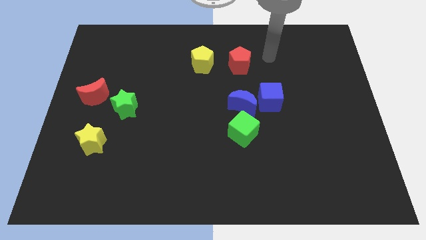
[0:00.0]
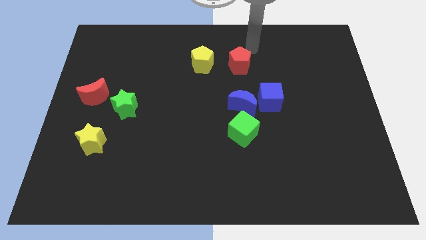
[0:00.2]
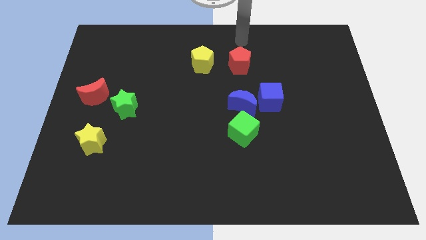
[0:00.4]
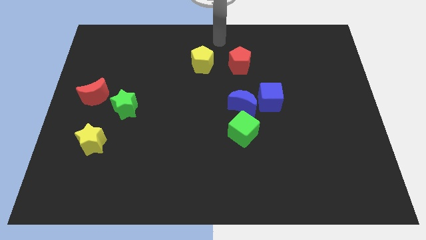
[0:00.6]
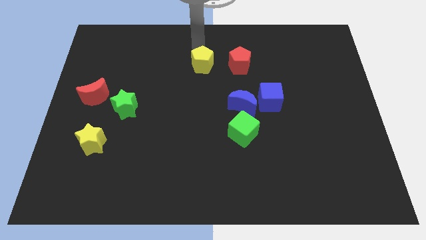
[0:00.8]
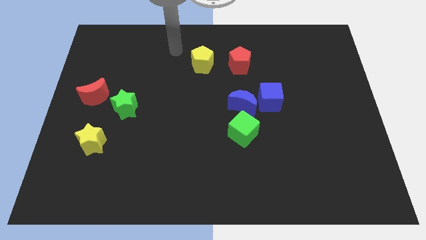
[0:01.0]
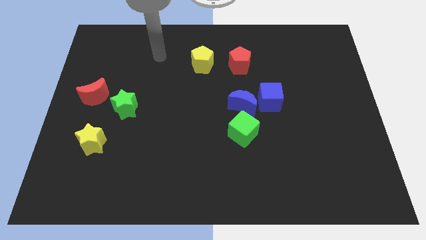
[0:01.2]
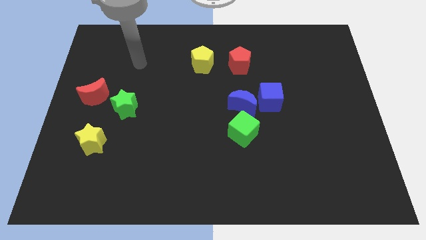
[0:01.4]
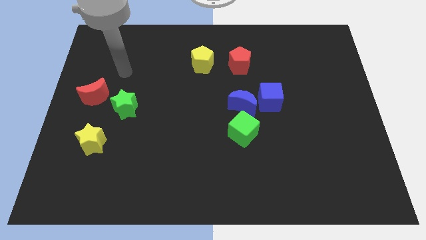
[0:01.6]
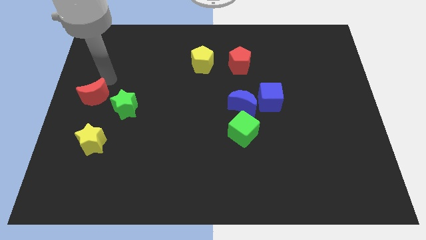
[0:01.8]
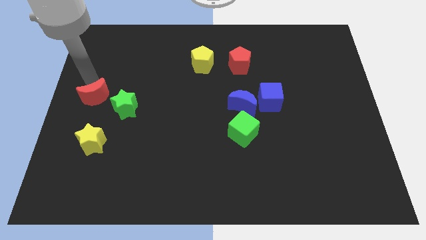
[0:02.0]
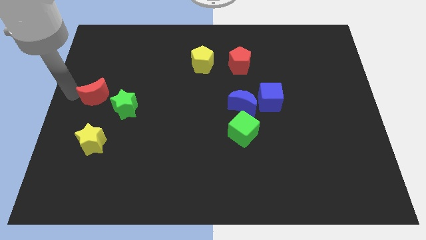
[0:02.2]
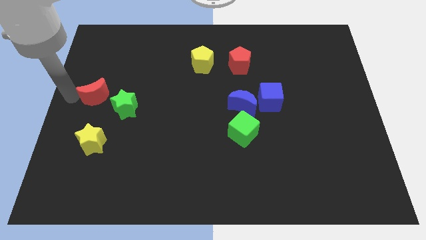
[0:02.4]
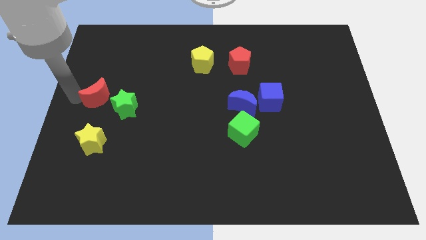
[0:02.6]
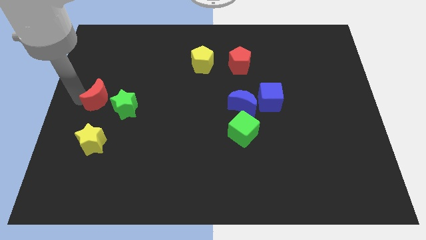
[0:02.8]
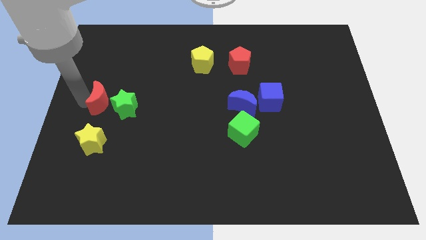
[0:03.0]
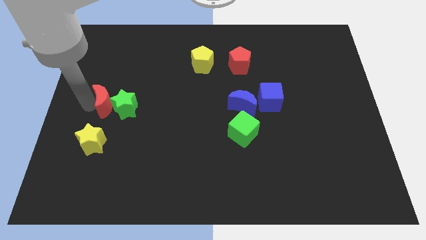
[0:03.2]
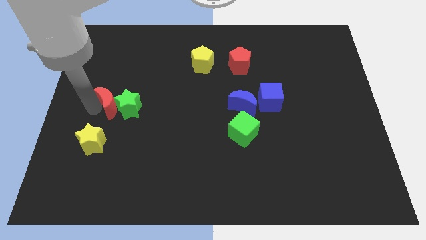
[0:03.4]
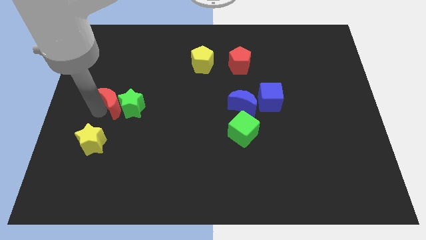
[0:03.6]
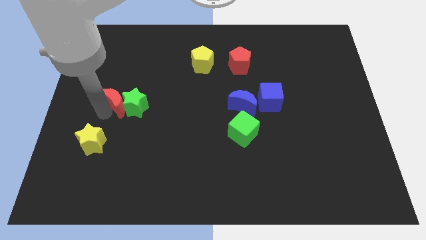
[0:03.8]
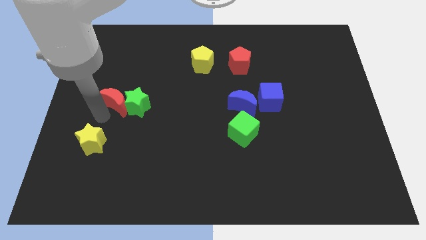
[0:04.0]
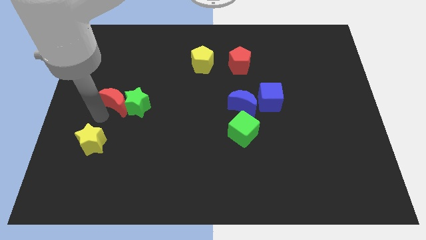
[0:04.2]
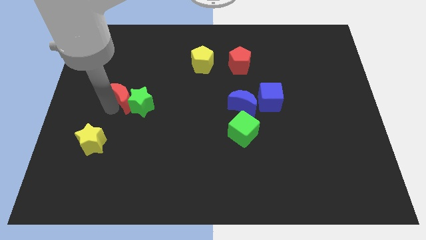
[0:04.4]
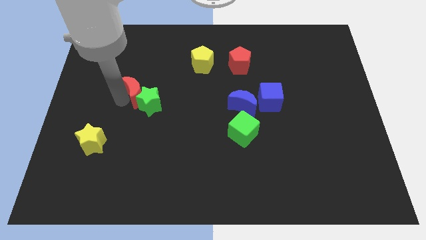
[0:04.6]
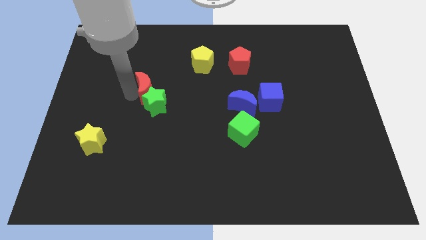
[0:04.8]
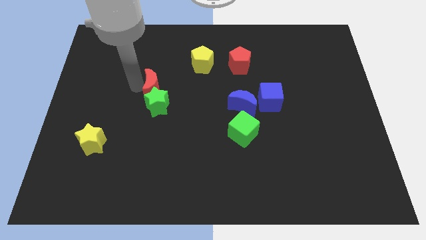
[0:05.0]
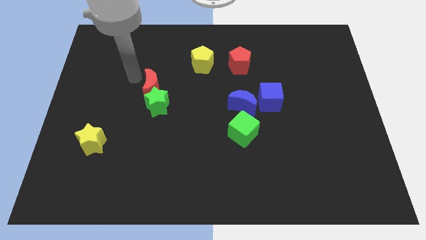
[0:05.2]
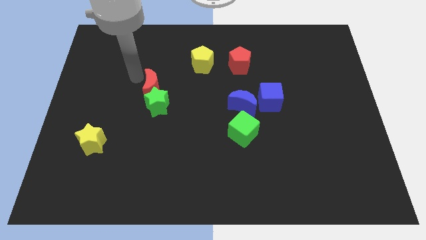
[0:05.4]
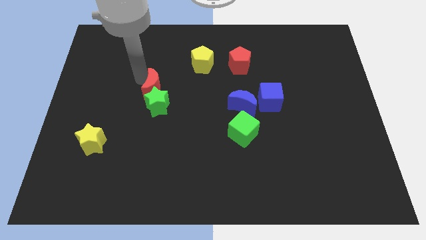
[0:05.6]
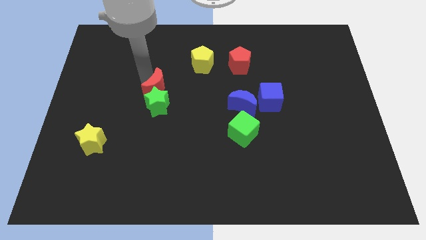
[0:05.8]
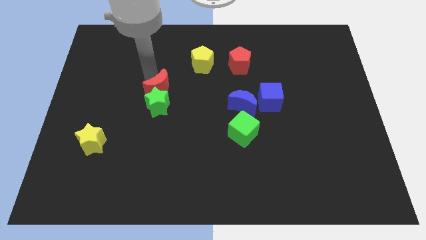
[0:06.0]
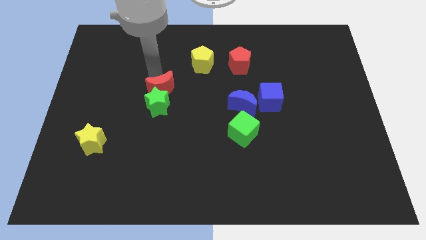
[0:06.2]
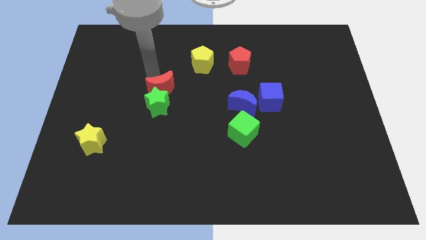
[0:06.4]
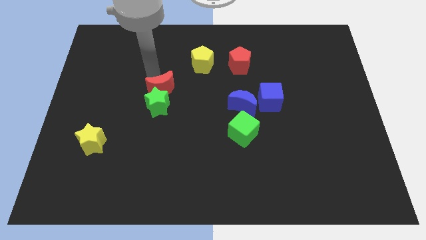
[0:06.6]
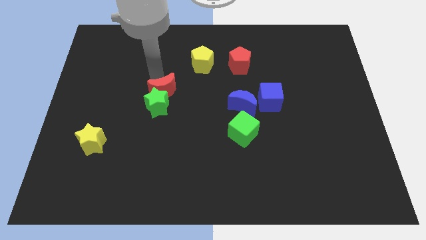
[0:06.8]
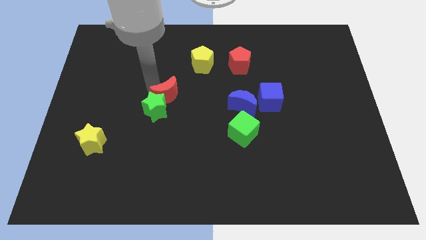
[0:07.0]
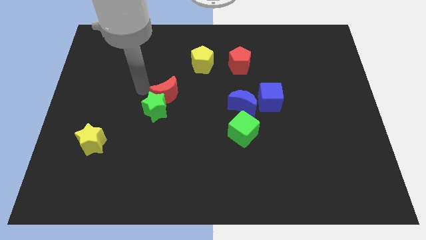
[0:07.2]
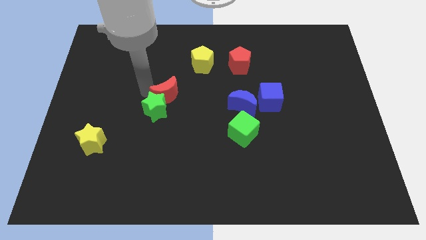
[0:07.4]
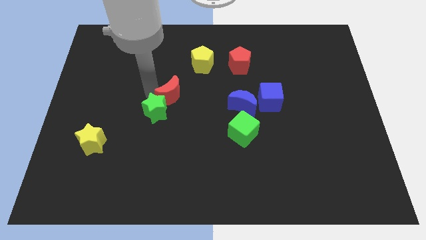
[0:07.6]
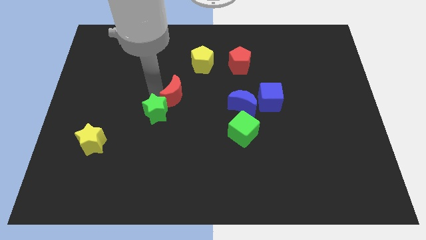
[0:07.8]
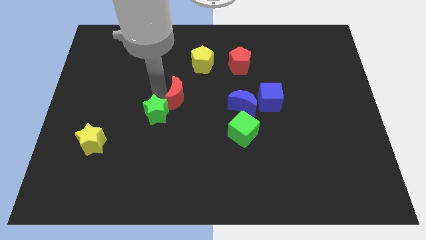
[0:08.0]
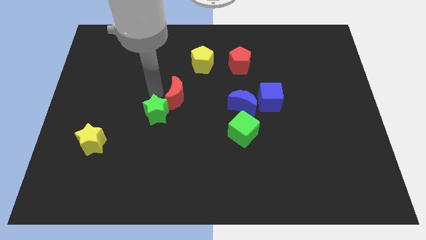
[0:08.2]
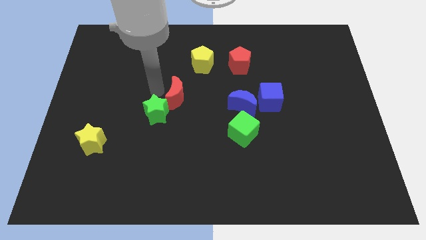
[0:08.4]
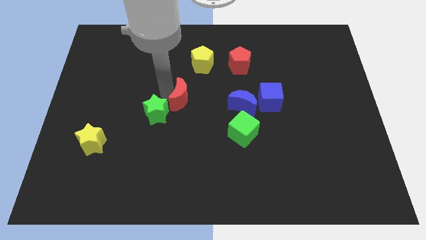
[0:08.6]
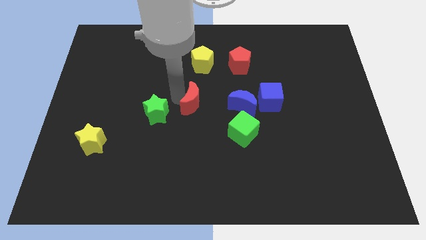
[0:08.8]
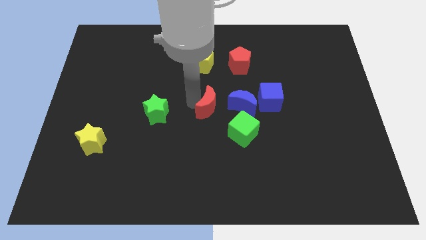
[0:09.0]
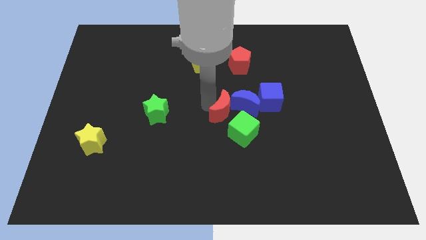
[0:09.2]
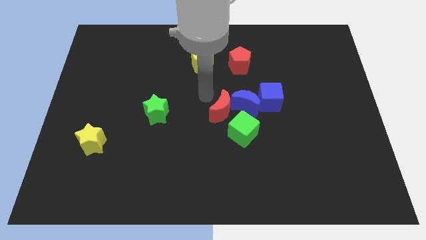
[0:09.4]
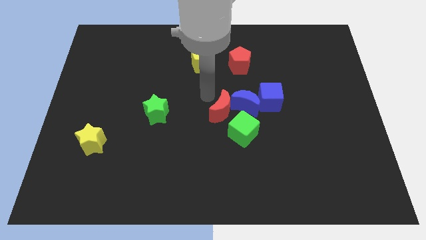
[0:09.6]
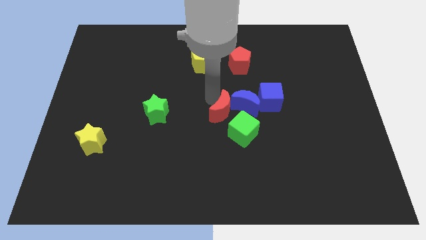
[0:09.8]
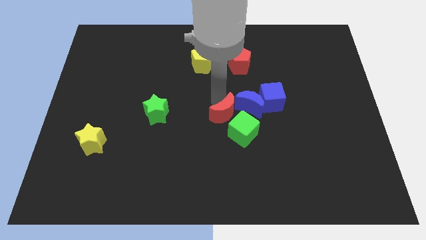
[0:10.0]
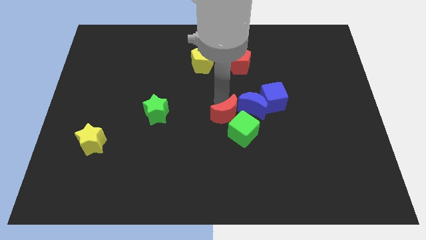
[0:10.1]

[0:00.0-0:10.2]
slide the red moon towards the green cube

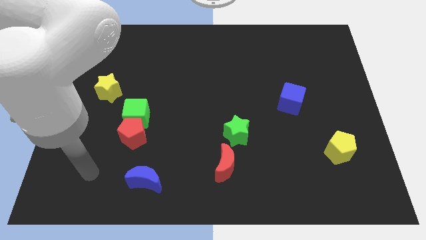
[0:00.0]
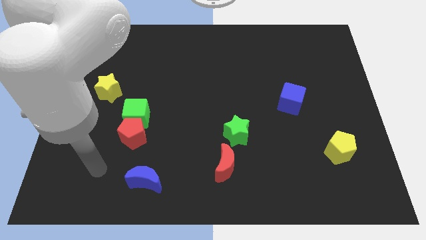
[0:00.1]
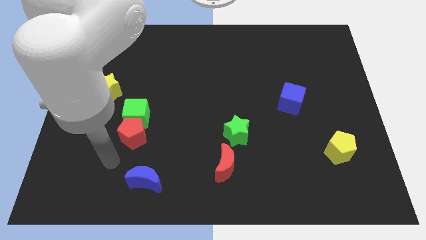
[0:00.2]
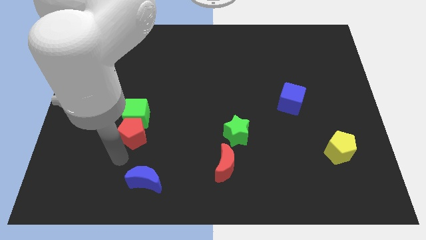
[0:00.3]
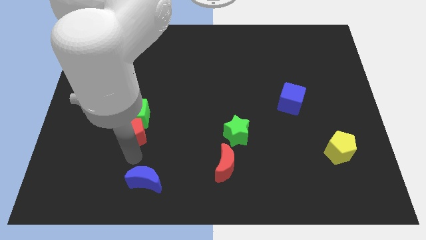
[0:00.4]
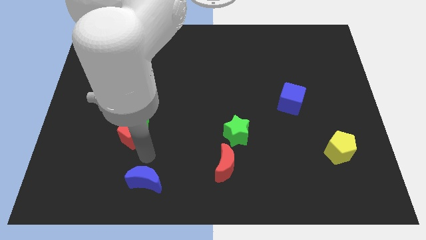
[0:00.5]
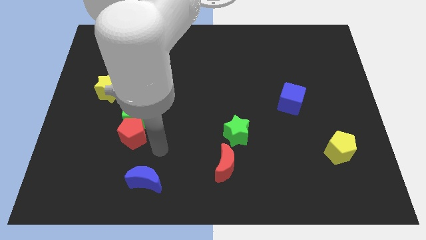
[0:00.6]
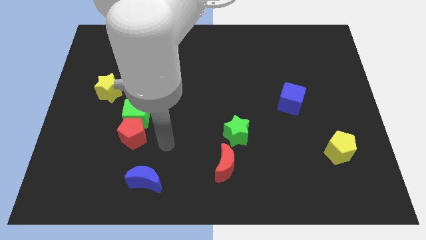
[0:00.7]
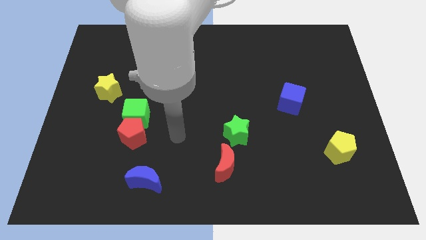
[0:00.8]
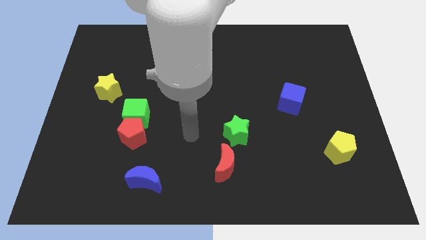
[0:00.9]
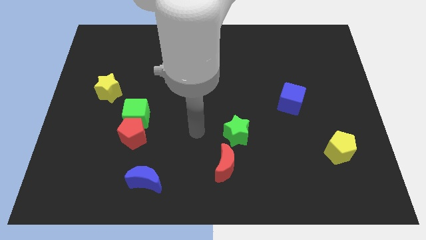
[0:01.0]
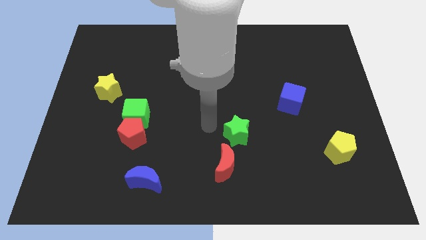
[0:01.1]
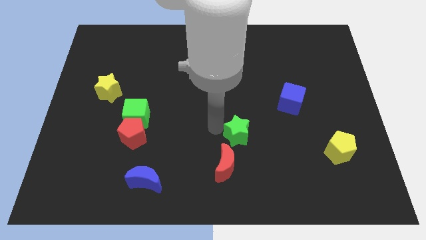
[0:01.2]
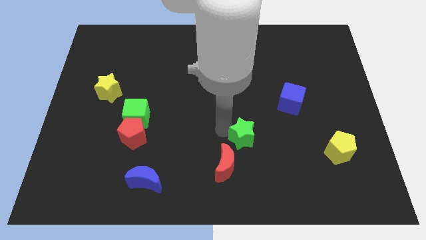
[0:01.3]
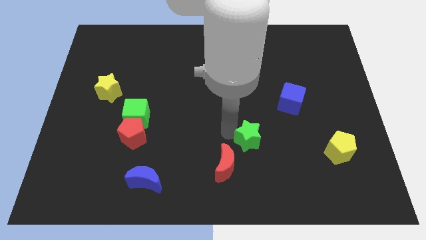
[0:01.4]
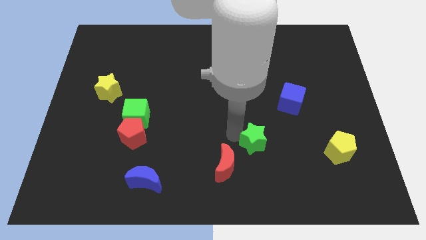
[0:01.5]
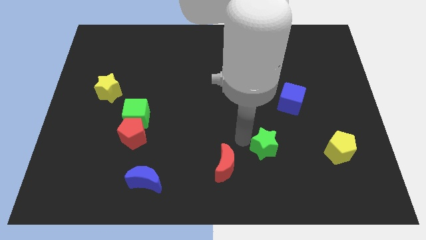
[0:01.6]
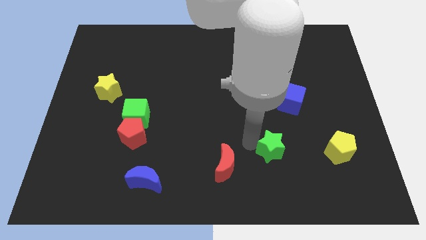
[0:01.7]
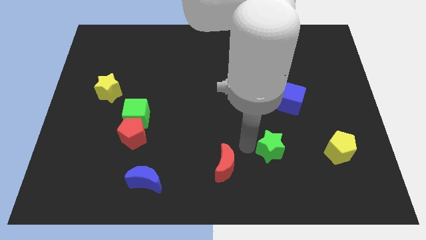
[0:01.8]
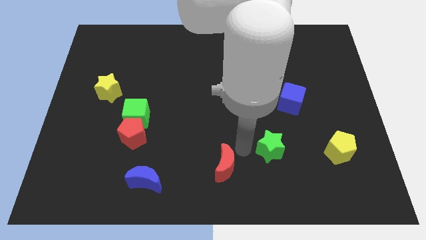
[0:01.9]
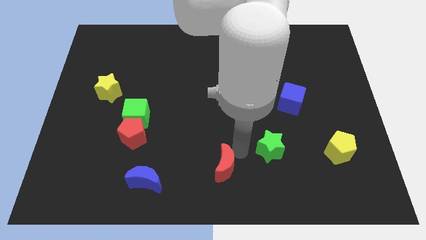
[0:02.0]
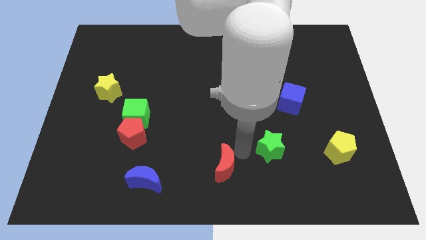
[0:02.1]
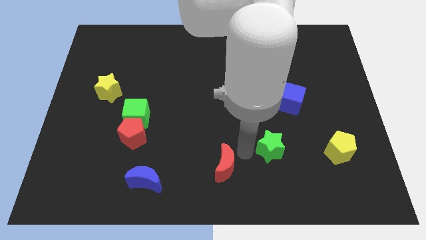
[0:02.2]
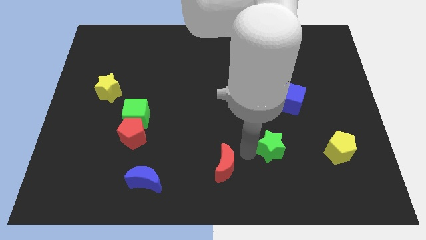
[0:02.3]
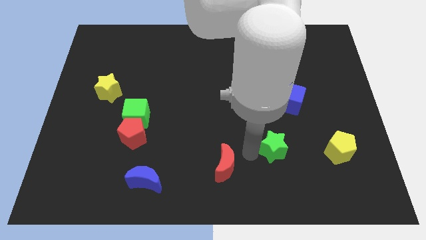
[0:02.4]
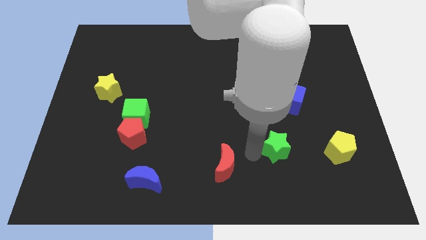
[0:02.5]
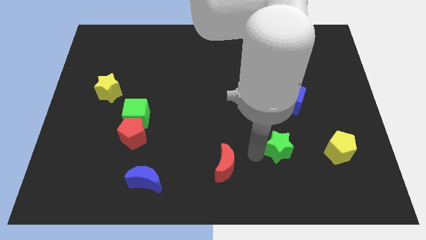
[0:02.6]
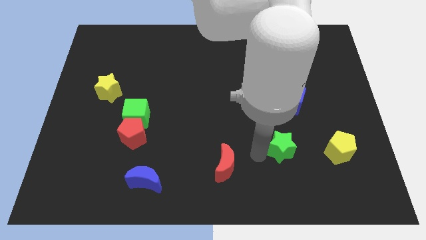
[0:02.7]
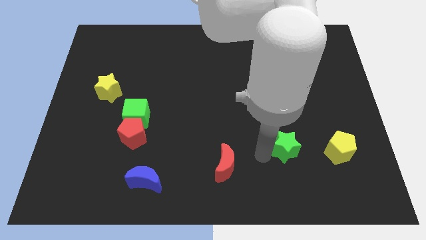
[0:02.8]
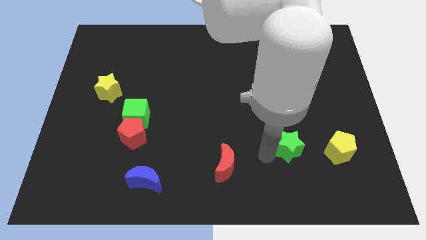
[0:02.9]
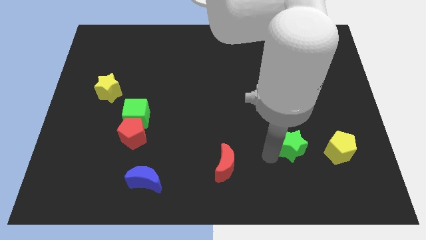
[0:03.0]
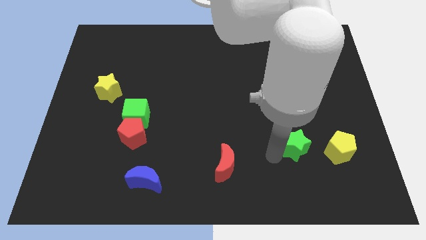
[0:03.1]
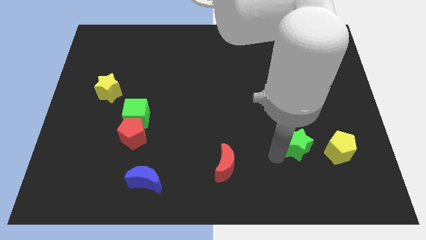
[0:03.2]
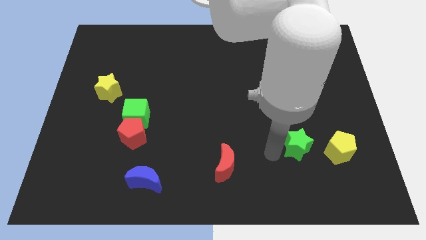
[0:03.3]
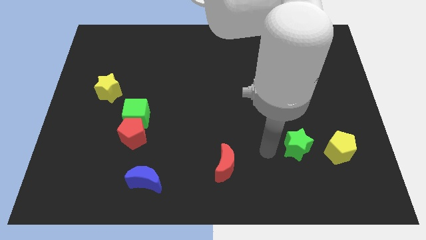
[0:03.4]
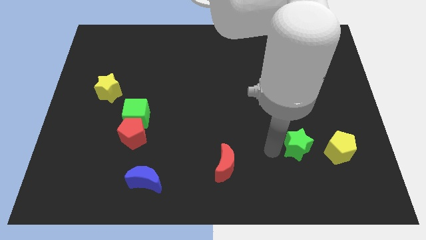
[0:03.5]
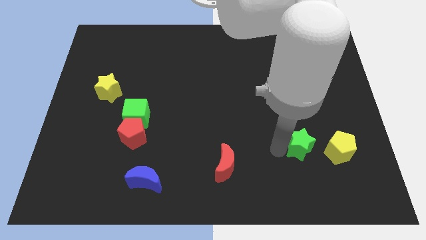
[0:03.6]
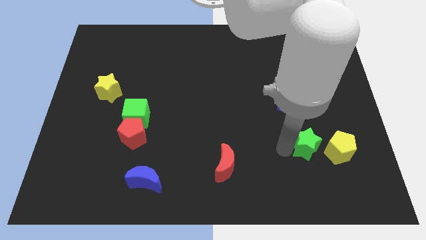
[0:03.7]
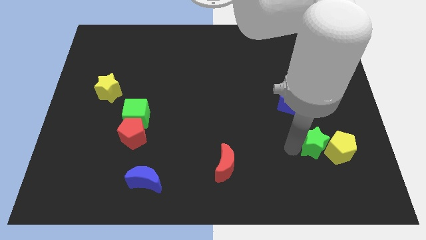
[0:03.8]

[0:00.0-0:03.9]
push the green star next to the yellow pentagon
